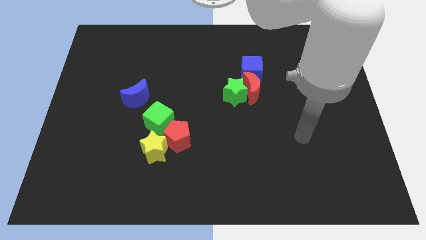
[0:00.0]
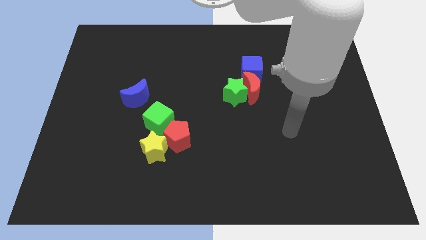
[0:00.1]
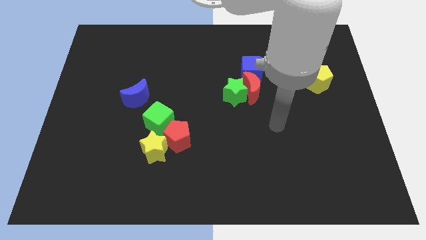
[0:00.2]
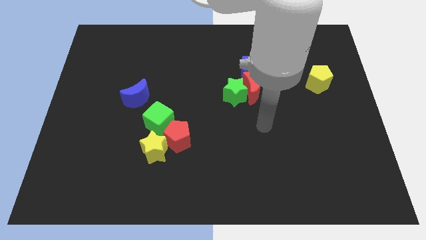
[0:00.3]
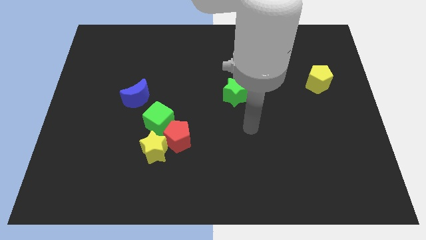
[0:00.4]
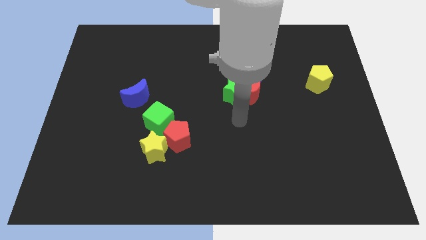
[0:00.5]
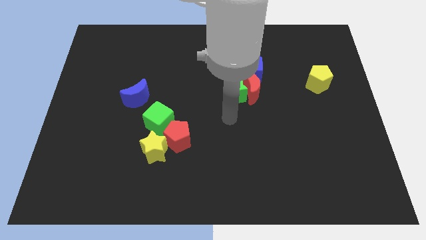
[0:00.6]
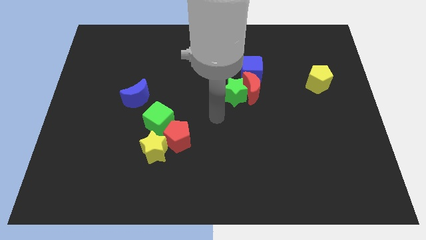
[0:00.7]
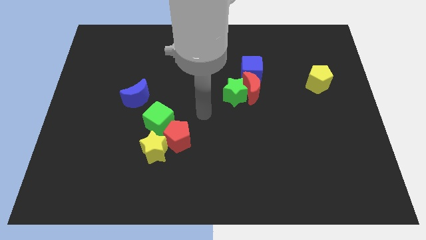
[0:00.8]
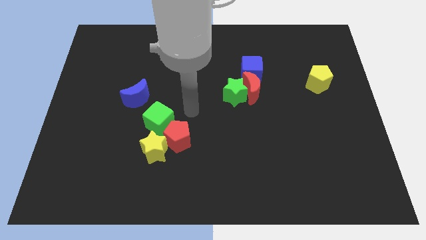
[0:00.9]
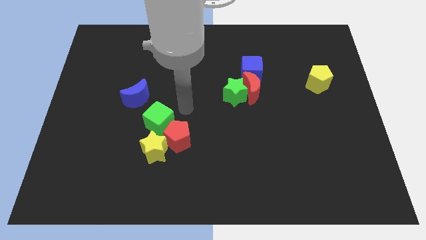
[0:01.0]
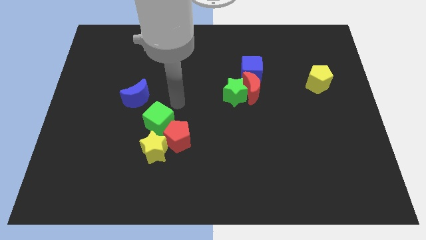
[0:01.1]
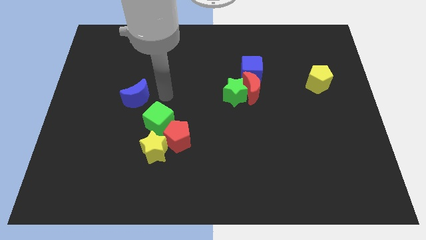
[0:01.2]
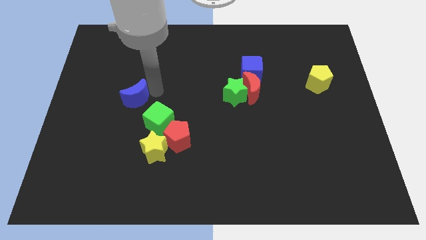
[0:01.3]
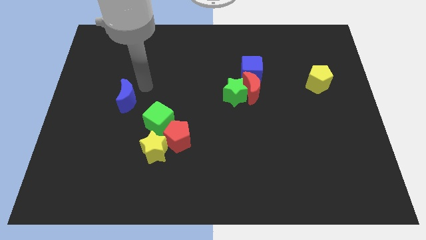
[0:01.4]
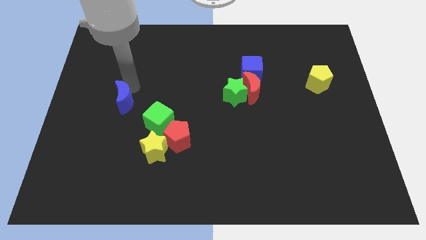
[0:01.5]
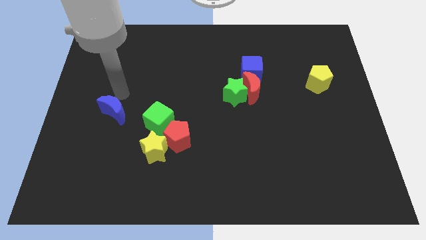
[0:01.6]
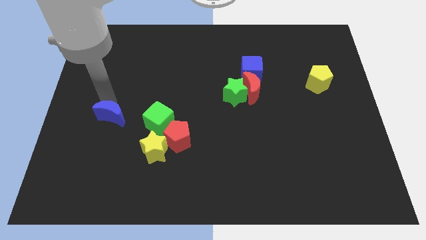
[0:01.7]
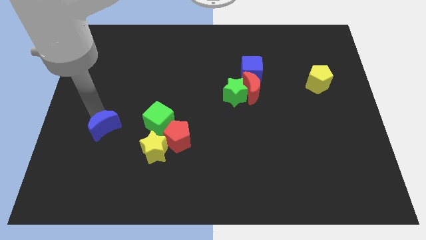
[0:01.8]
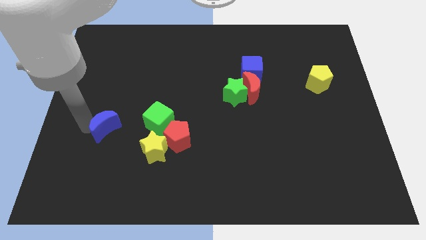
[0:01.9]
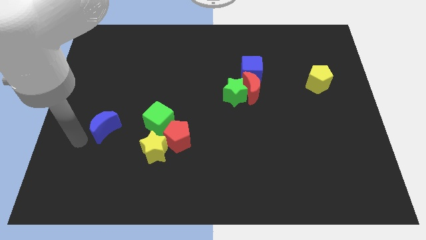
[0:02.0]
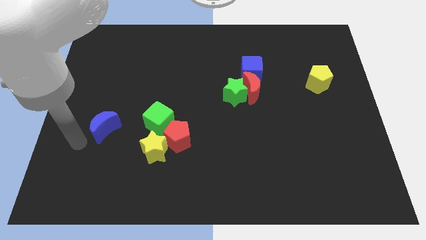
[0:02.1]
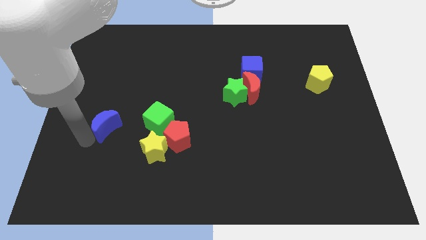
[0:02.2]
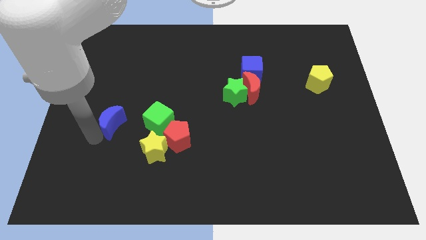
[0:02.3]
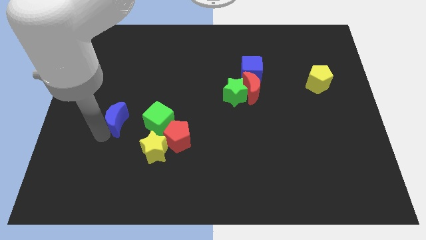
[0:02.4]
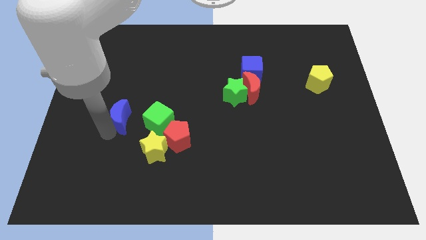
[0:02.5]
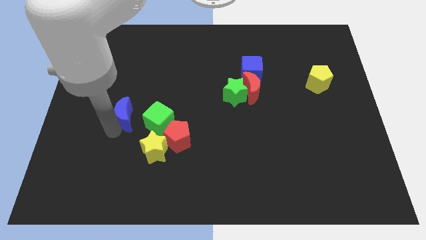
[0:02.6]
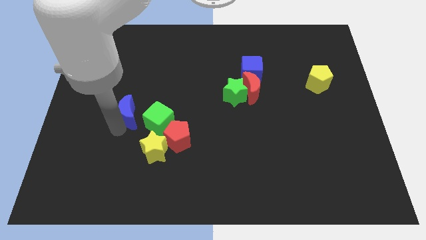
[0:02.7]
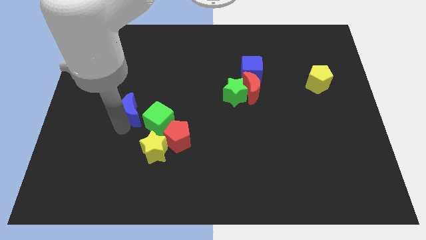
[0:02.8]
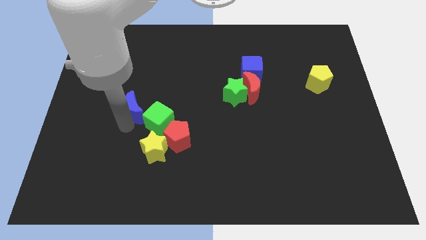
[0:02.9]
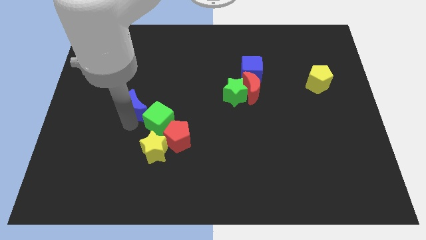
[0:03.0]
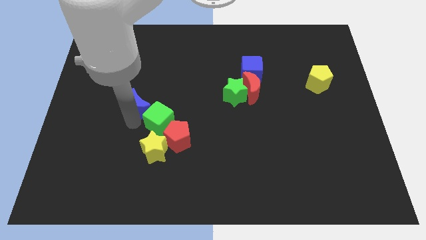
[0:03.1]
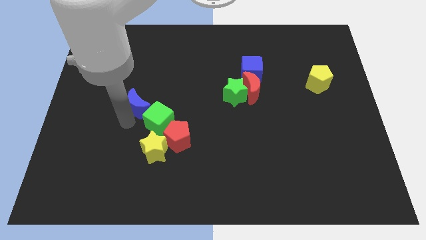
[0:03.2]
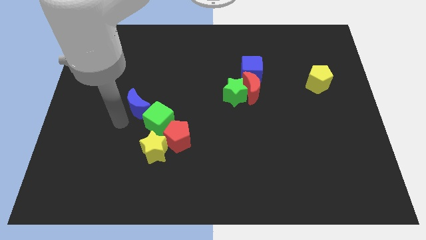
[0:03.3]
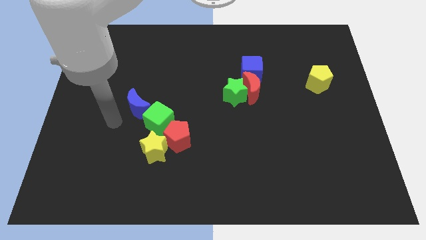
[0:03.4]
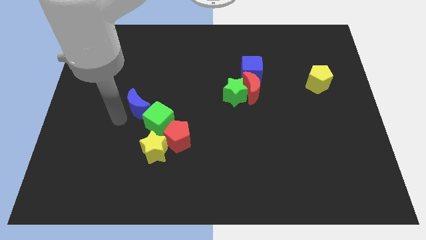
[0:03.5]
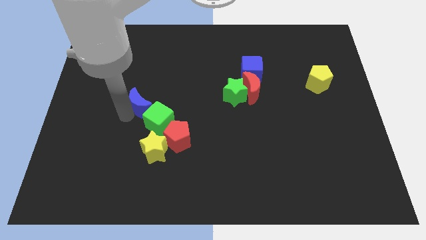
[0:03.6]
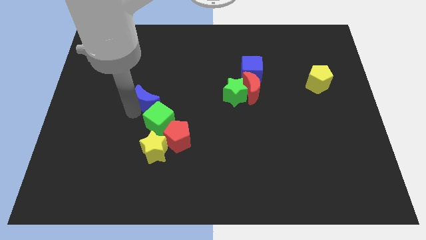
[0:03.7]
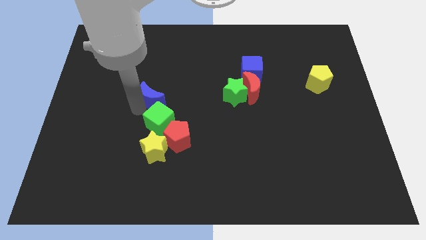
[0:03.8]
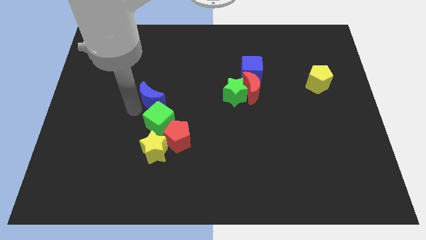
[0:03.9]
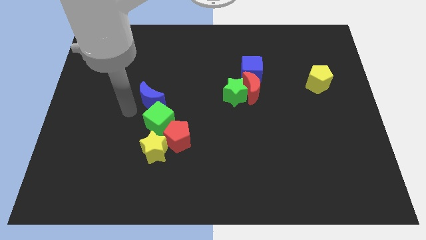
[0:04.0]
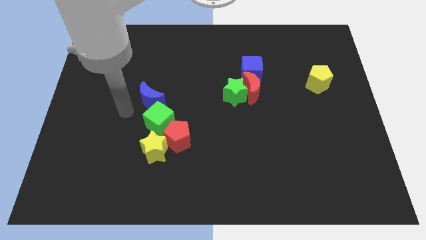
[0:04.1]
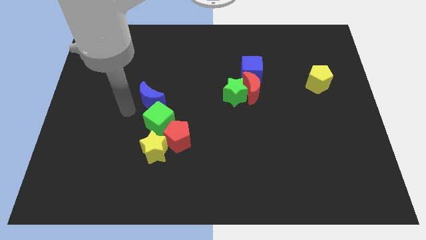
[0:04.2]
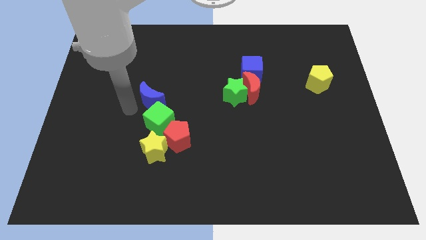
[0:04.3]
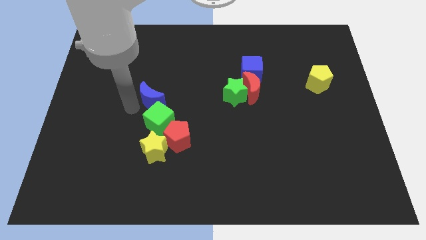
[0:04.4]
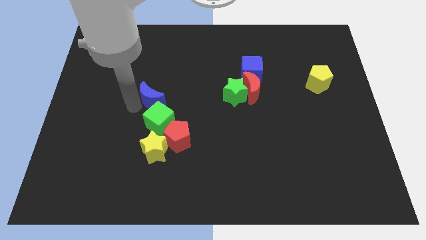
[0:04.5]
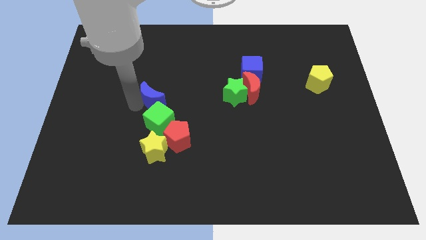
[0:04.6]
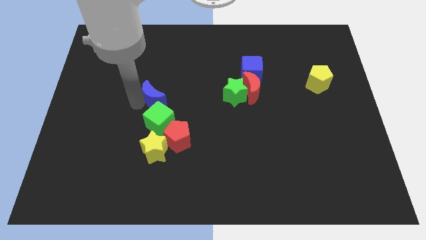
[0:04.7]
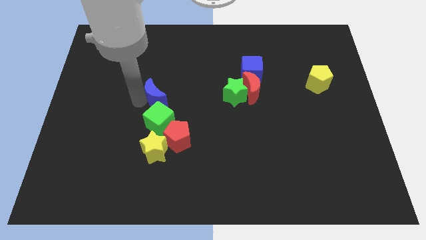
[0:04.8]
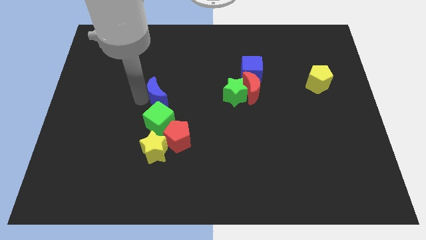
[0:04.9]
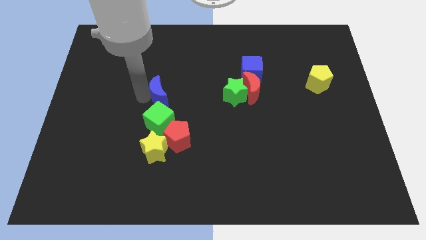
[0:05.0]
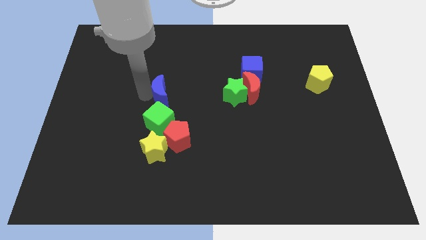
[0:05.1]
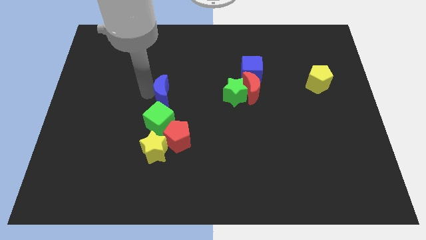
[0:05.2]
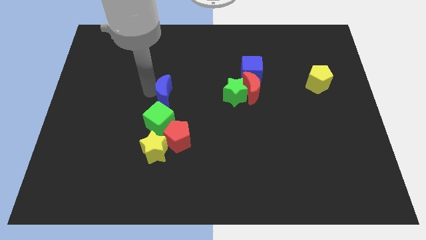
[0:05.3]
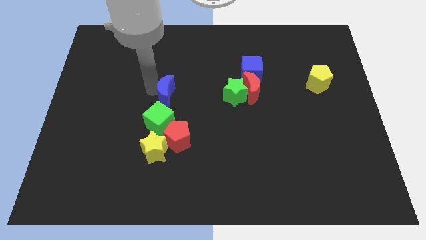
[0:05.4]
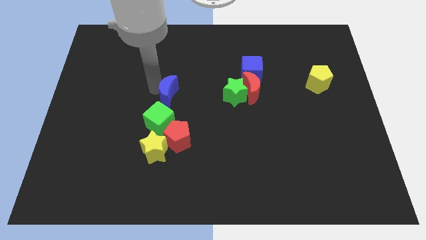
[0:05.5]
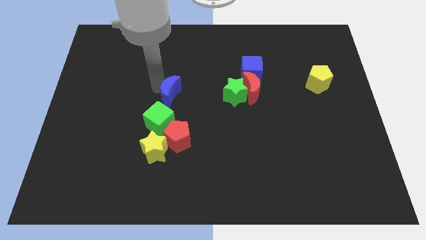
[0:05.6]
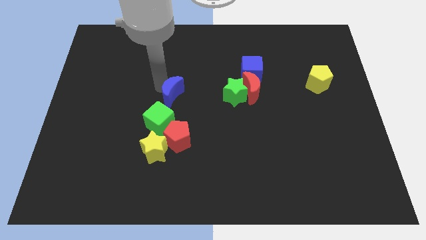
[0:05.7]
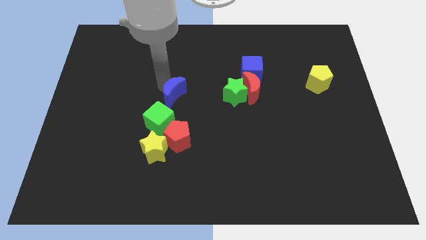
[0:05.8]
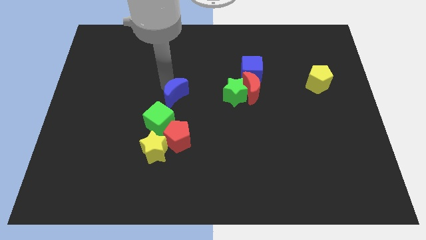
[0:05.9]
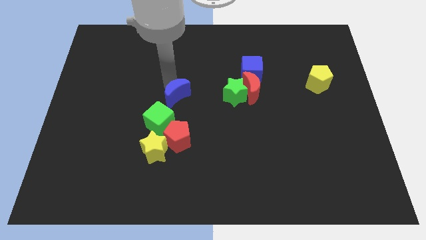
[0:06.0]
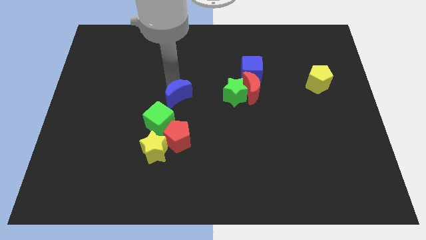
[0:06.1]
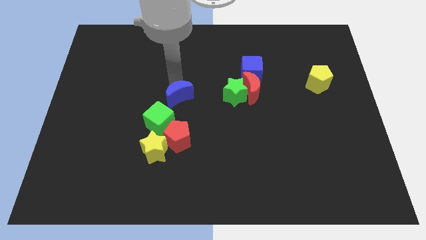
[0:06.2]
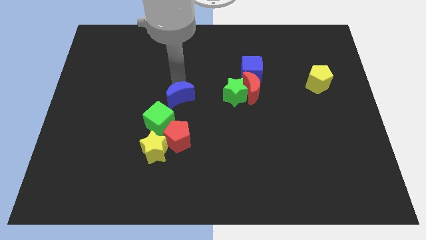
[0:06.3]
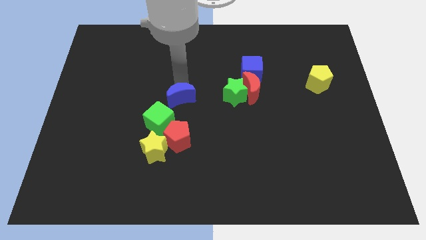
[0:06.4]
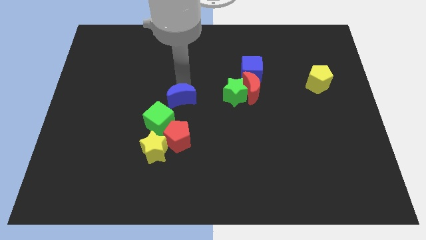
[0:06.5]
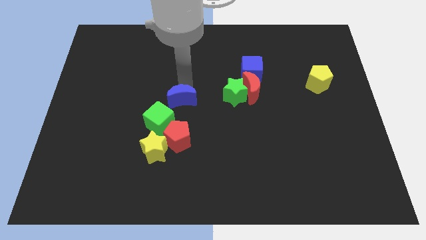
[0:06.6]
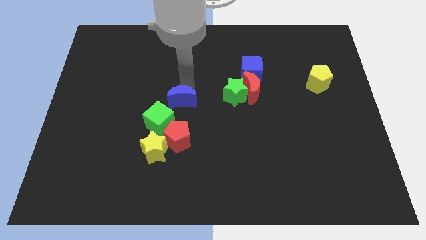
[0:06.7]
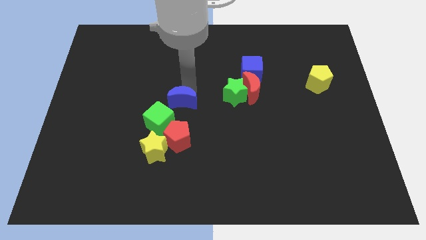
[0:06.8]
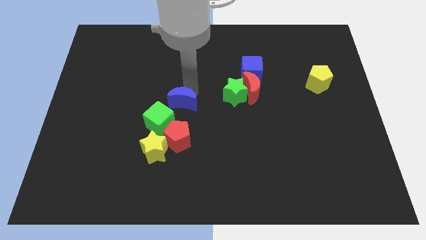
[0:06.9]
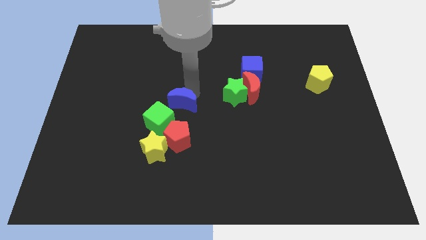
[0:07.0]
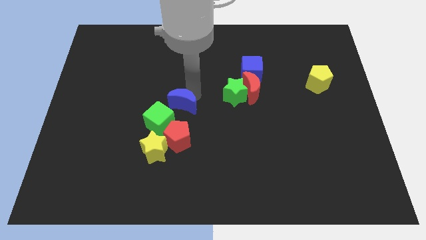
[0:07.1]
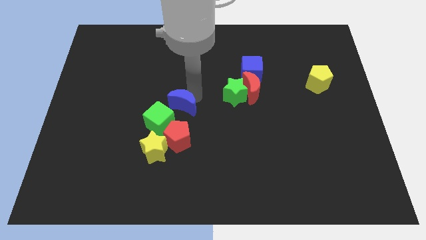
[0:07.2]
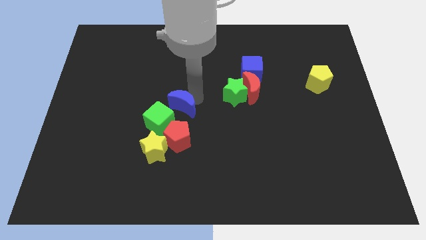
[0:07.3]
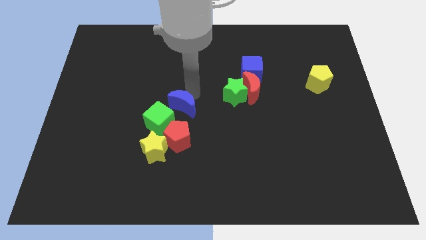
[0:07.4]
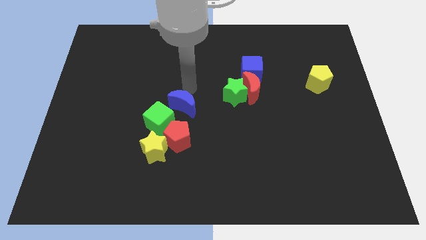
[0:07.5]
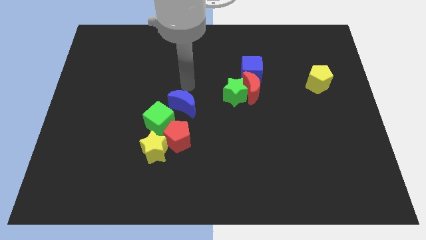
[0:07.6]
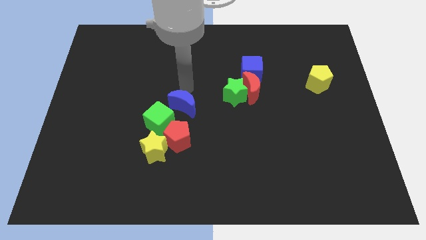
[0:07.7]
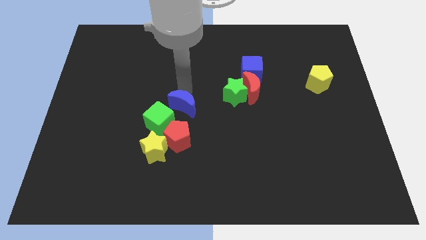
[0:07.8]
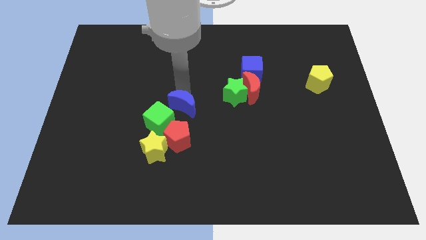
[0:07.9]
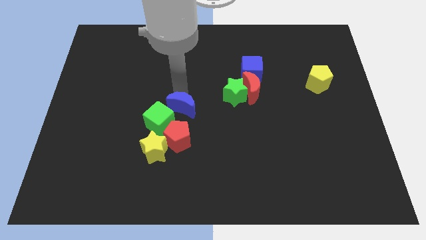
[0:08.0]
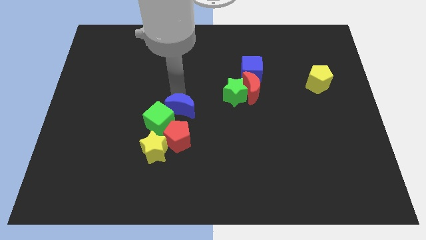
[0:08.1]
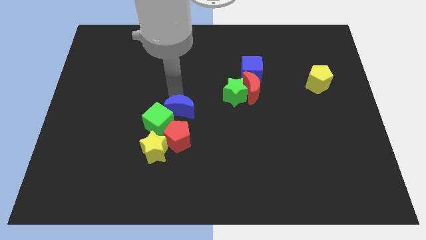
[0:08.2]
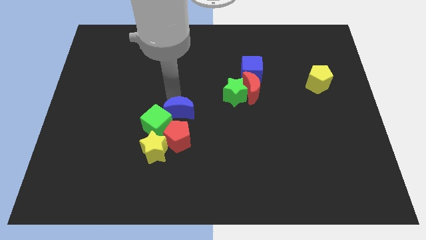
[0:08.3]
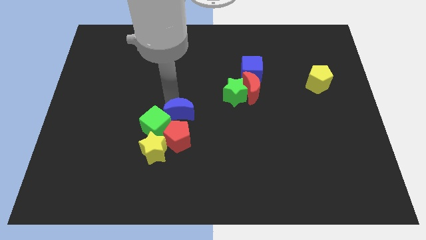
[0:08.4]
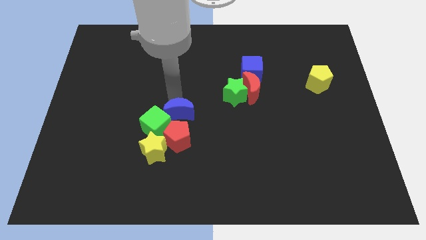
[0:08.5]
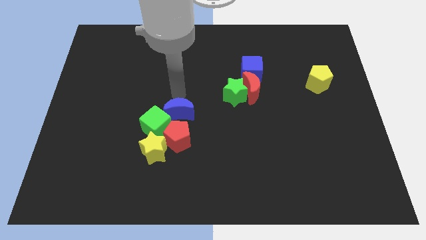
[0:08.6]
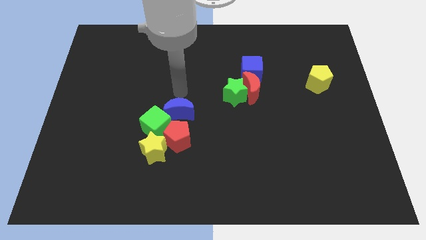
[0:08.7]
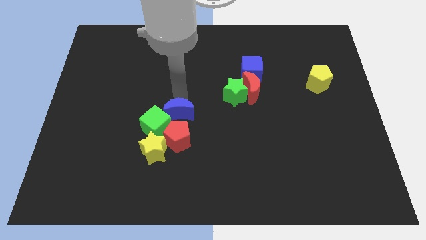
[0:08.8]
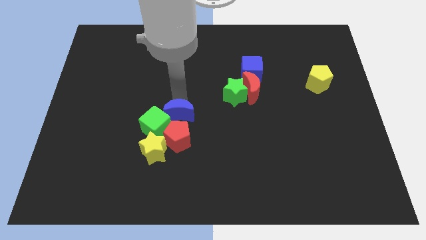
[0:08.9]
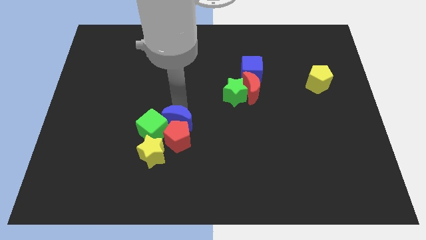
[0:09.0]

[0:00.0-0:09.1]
put the blue moon towards the red pentagon
